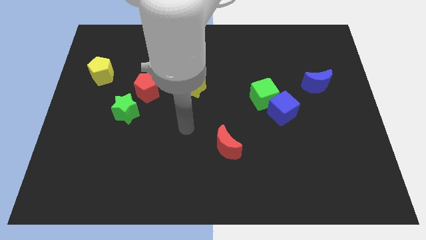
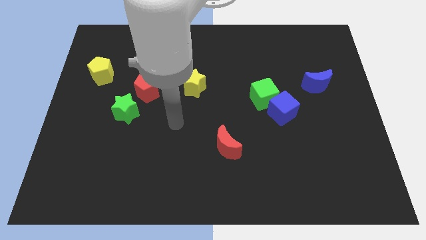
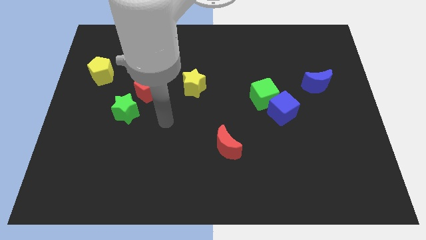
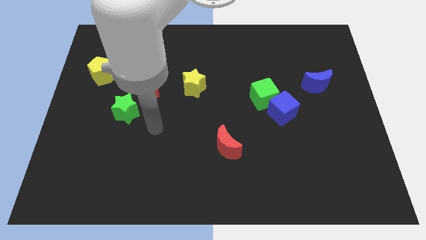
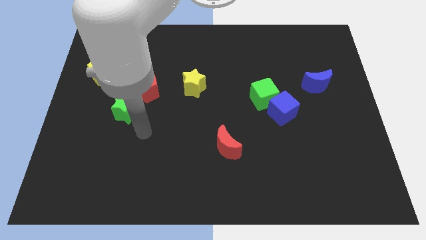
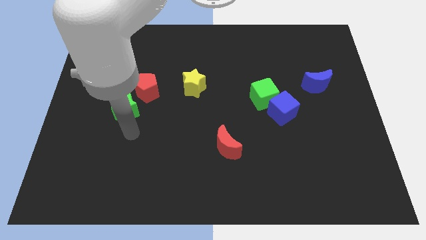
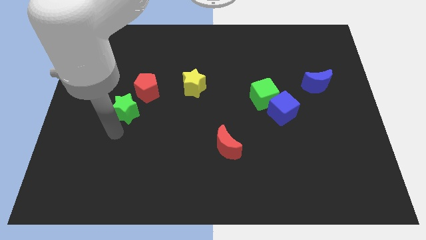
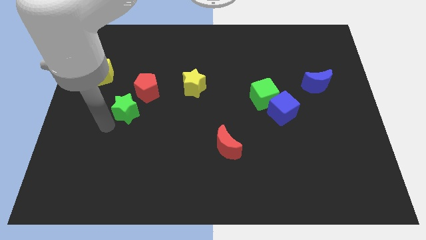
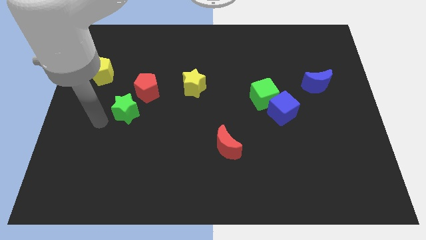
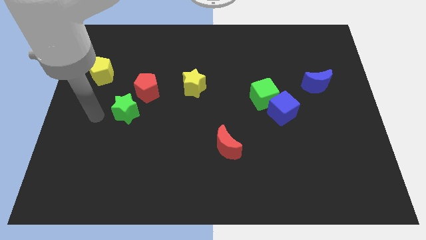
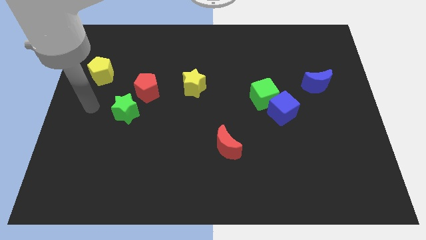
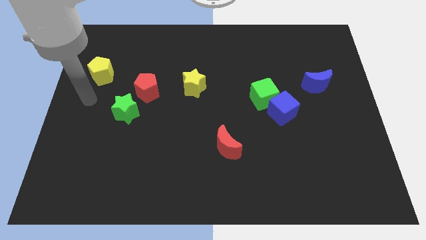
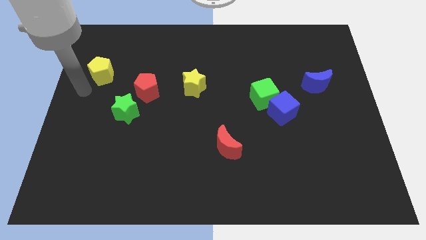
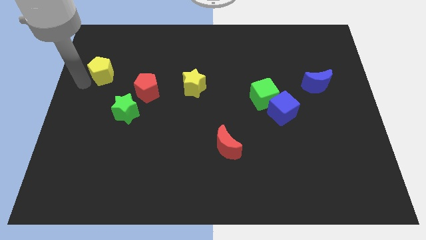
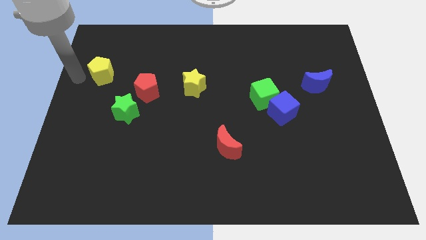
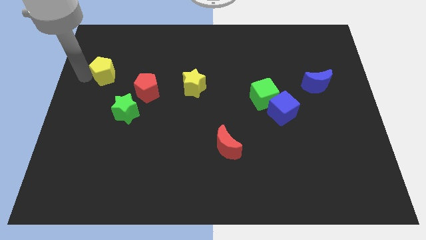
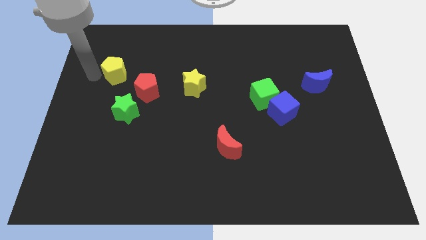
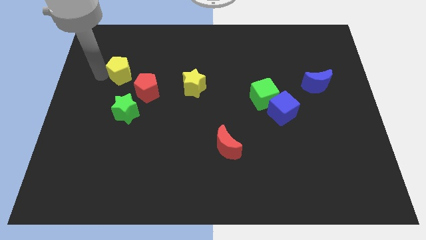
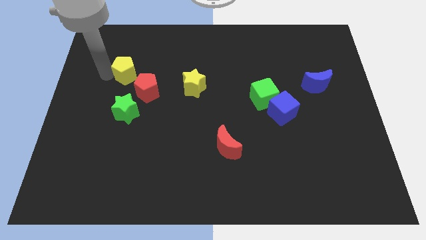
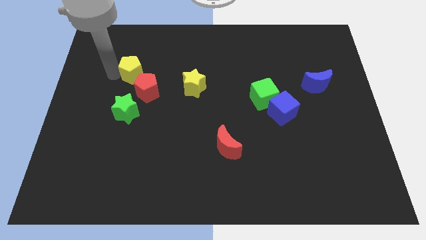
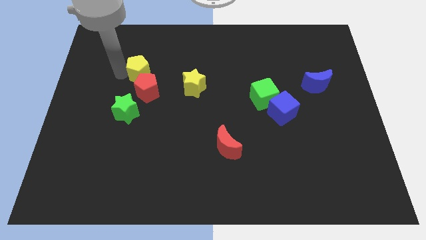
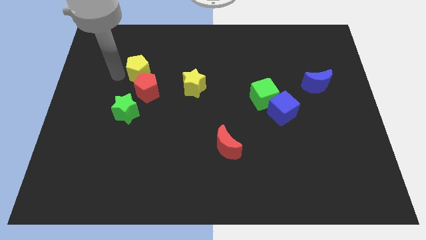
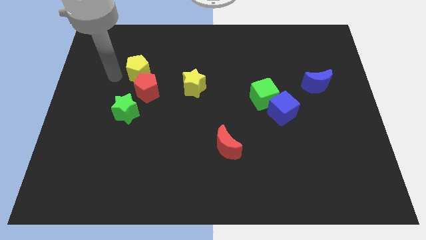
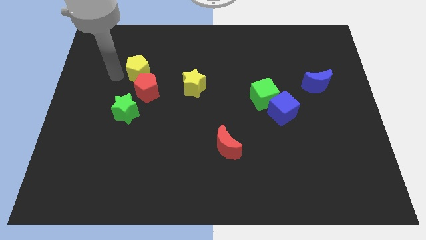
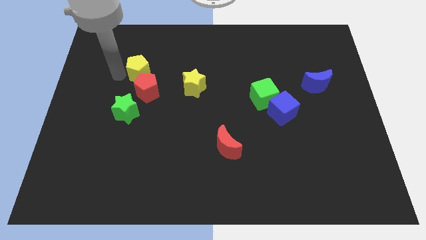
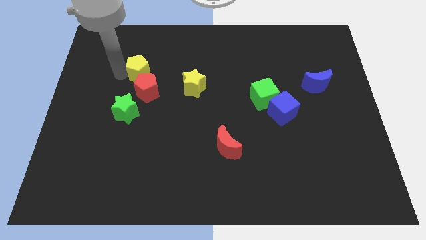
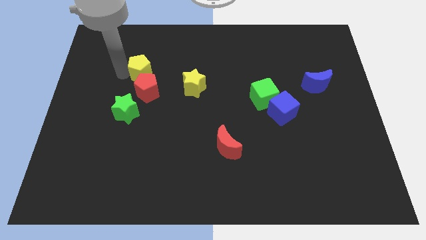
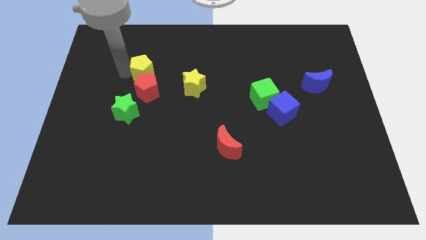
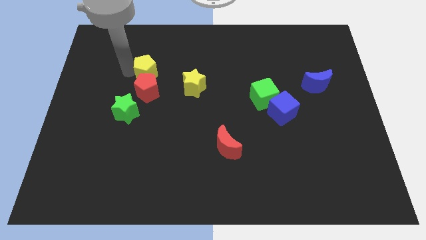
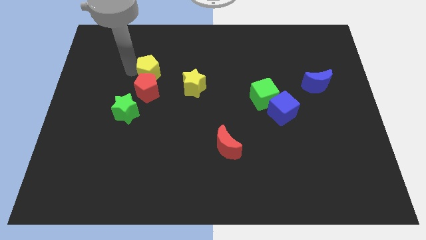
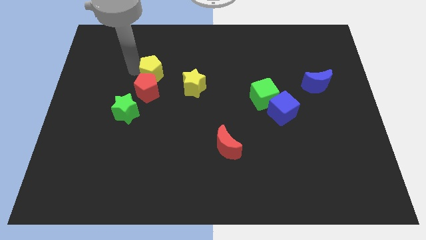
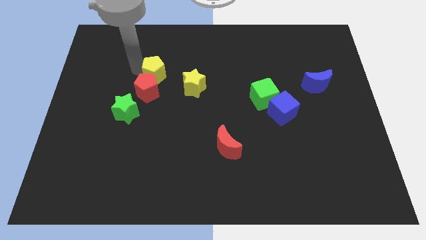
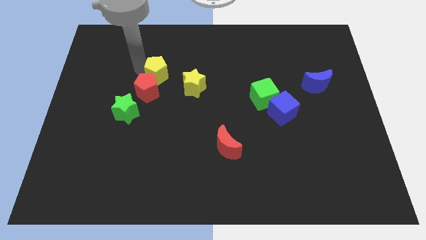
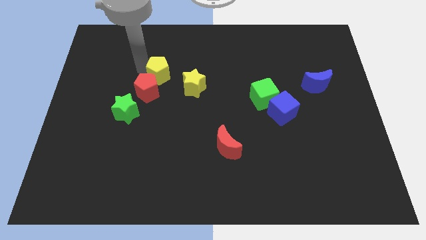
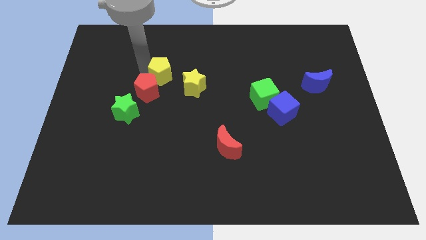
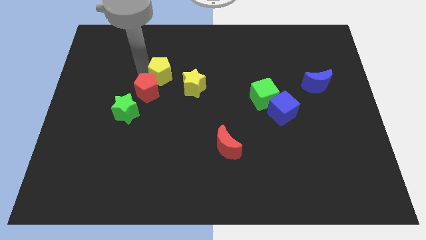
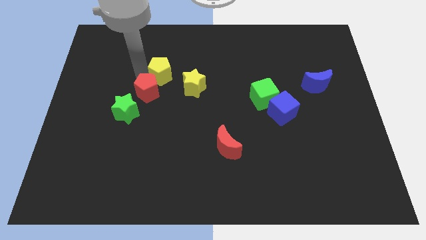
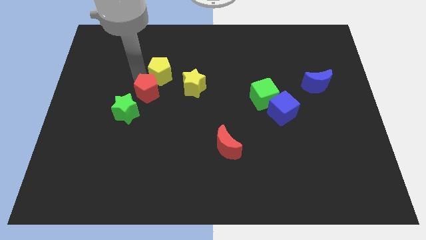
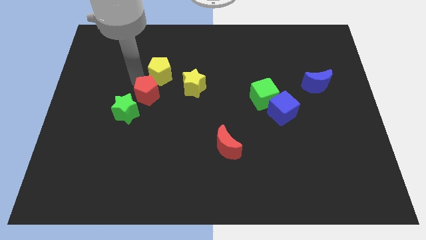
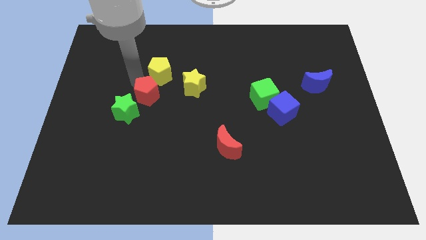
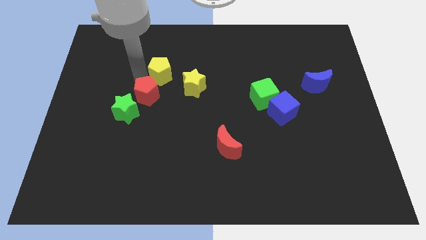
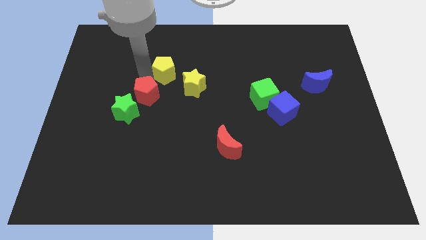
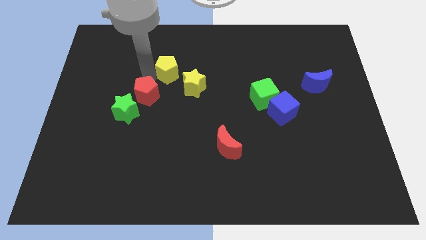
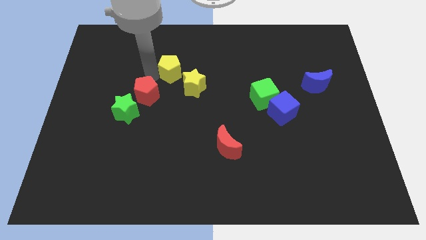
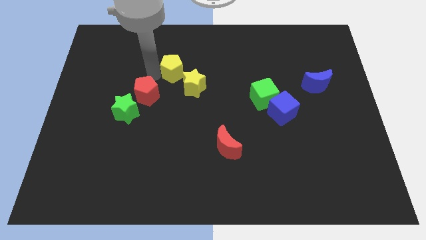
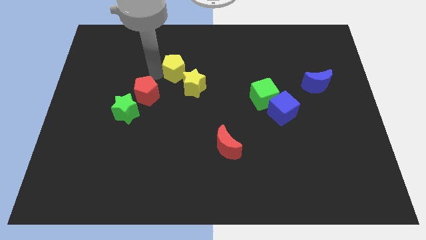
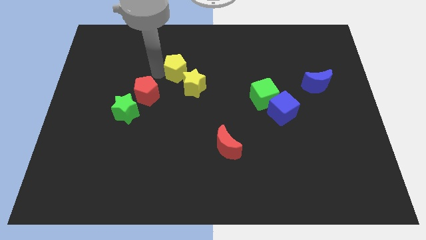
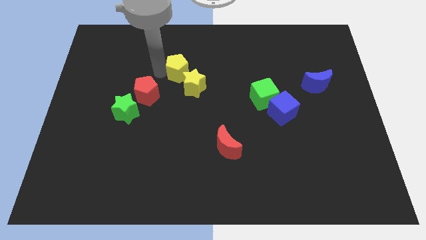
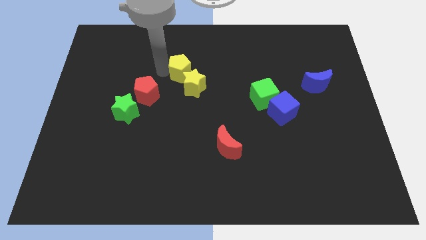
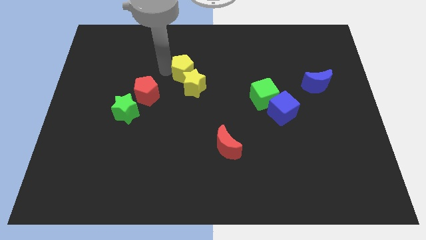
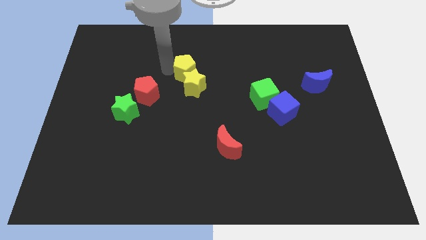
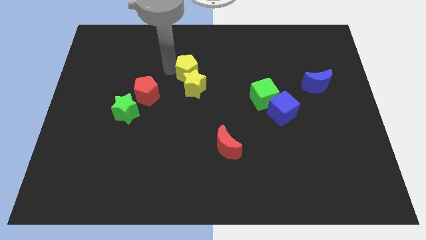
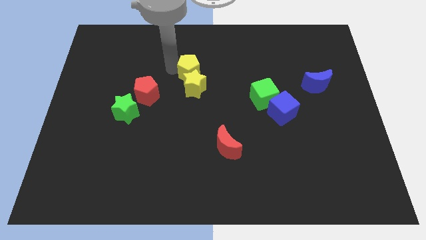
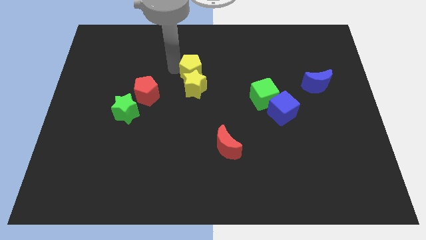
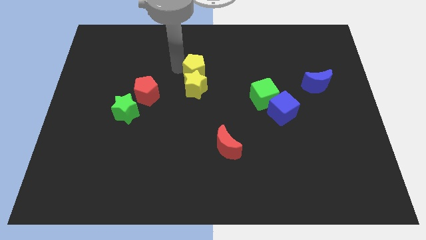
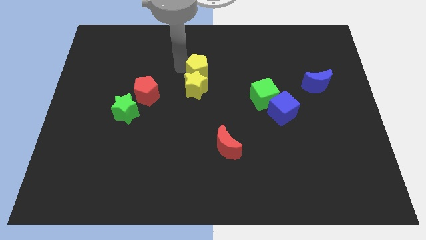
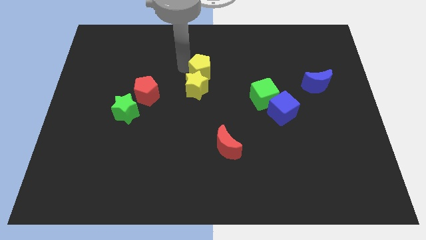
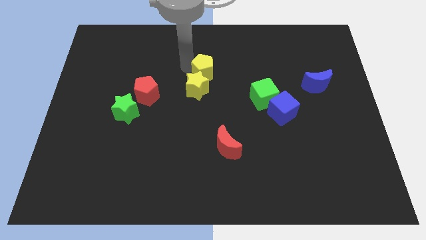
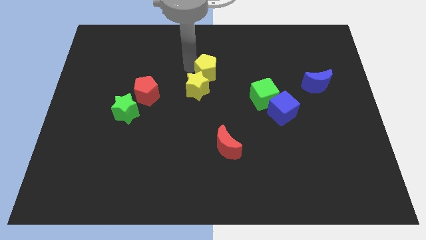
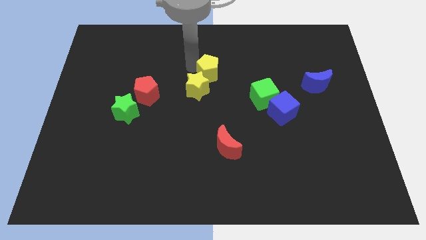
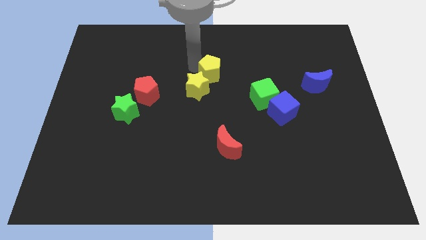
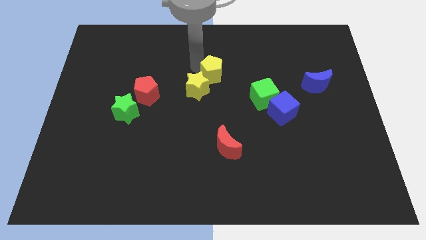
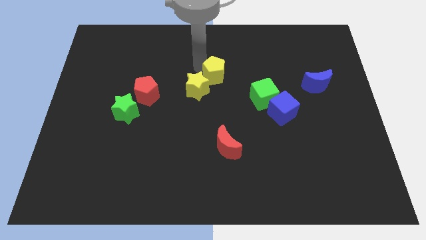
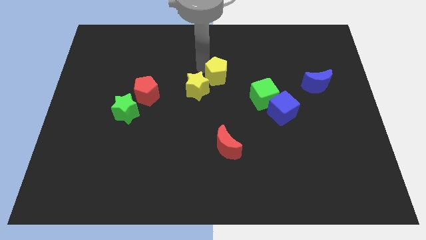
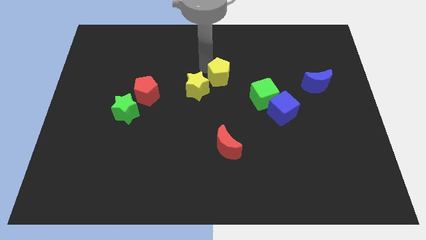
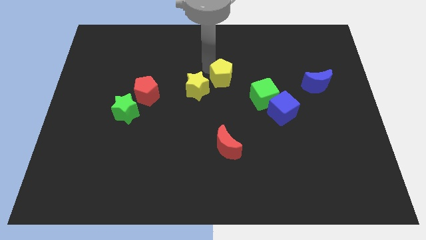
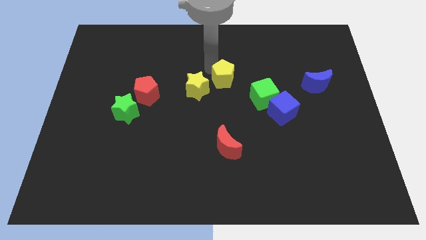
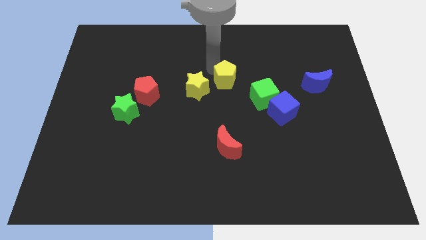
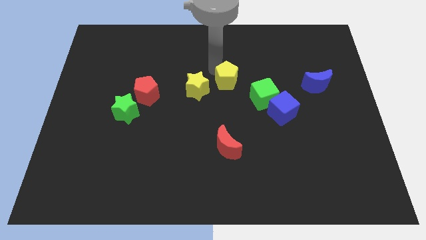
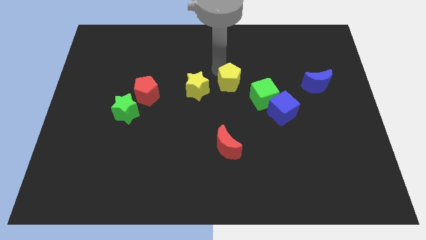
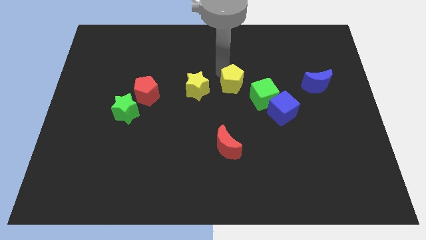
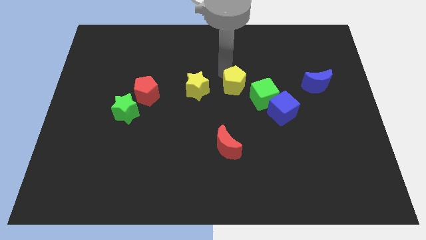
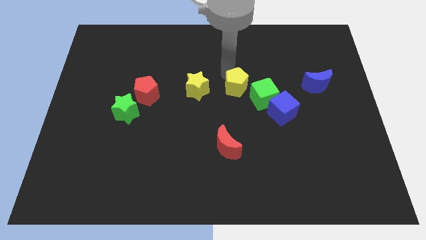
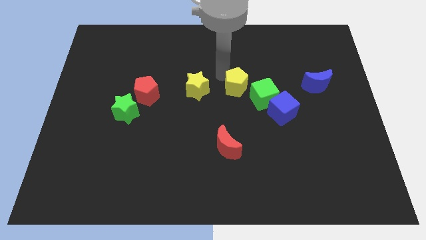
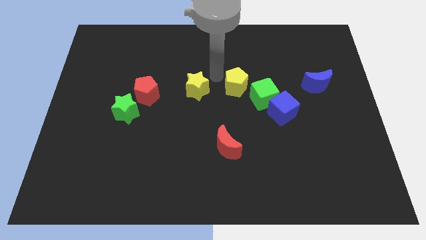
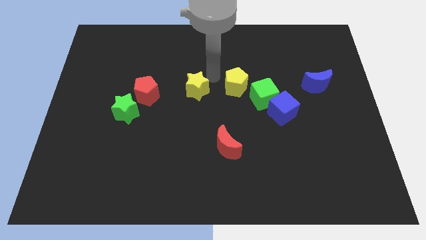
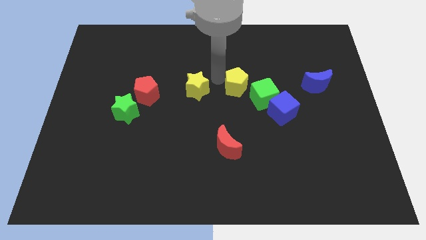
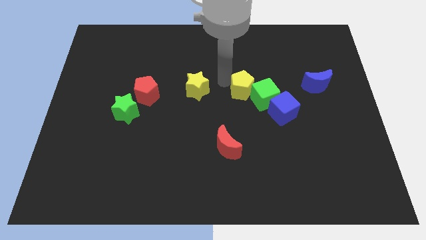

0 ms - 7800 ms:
put the yellow pentagon to the top left of the blue cube

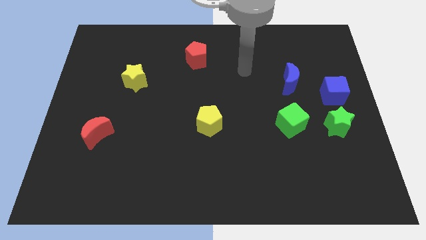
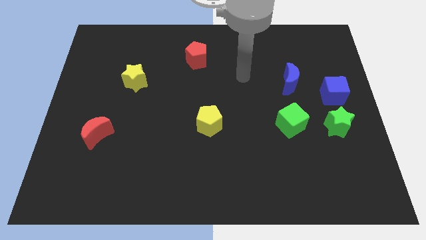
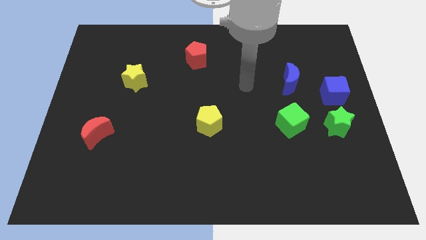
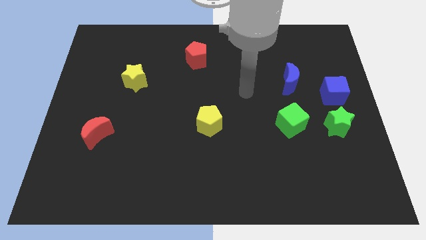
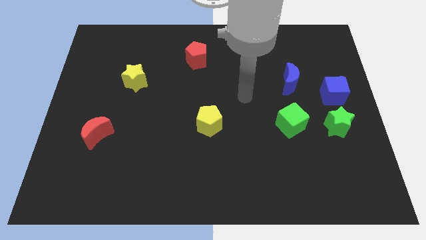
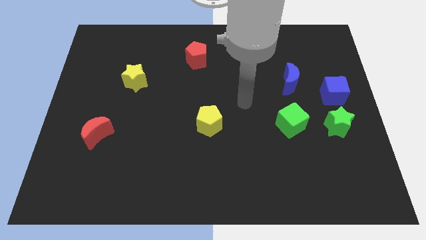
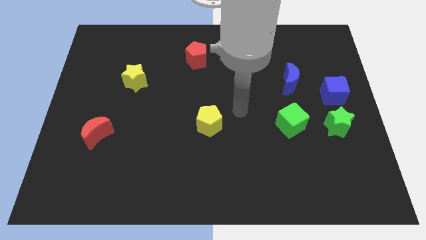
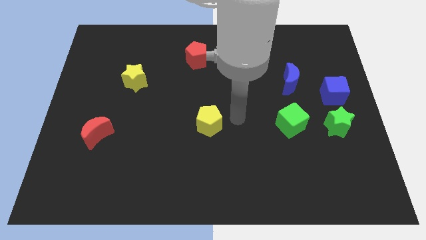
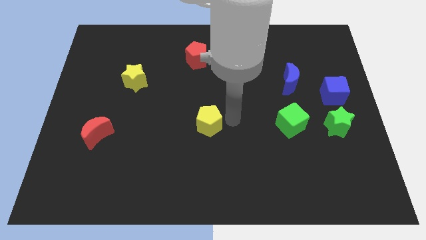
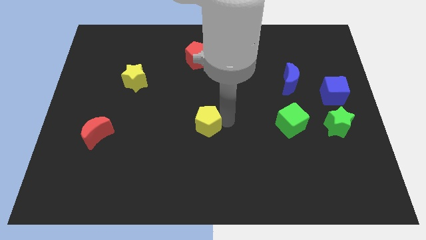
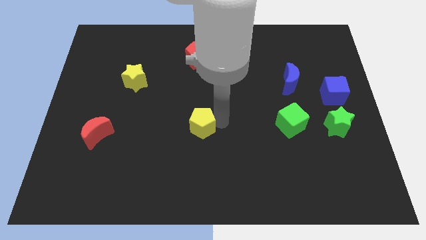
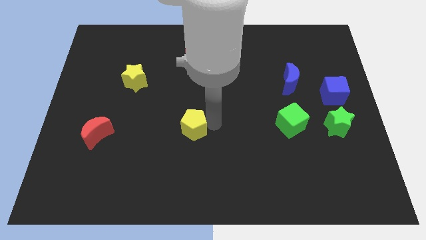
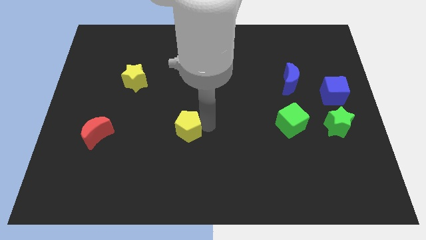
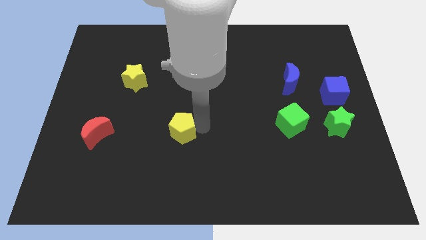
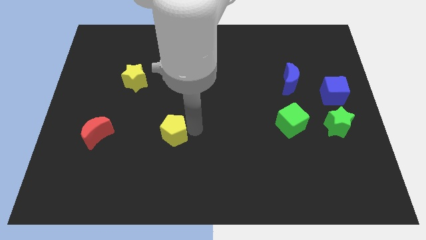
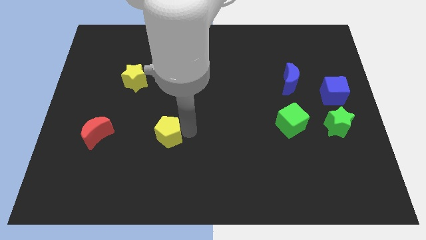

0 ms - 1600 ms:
push the yellow pentagon right of the red moon
